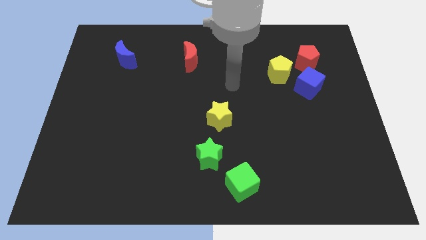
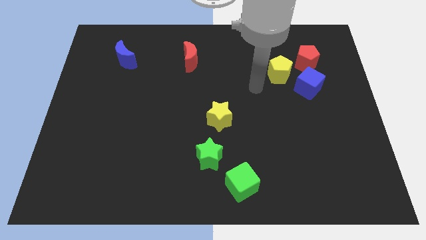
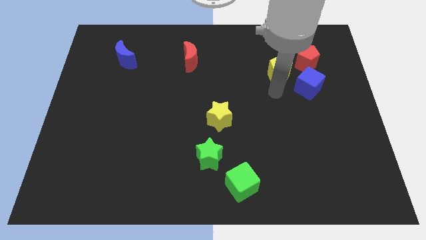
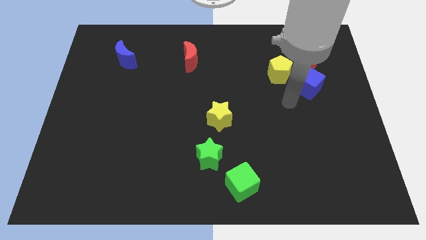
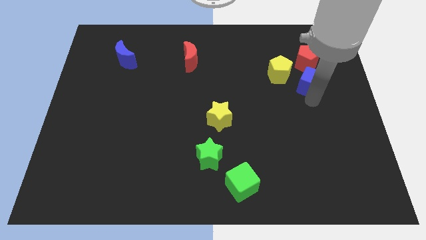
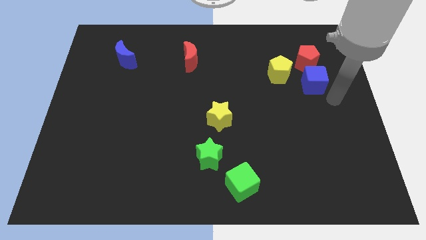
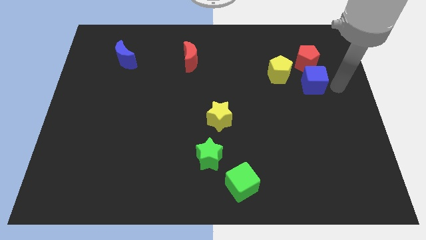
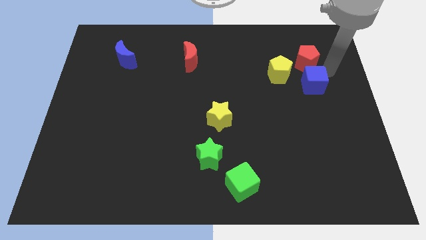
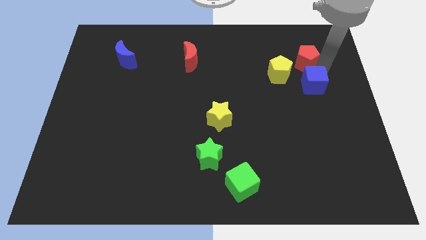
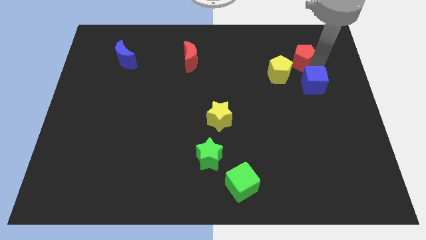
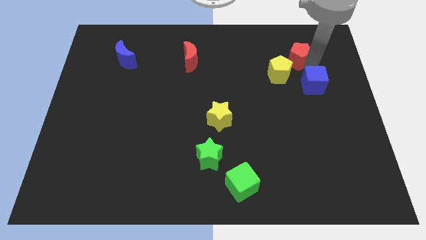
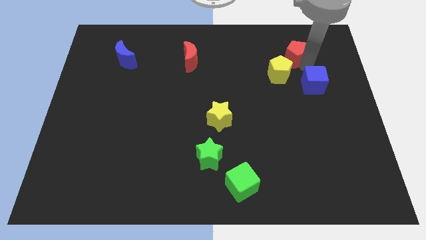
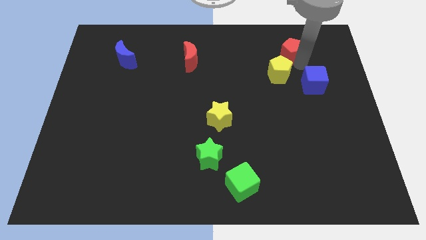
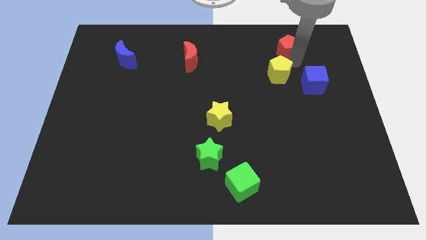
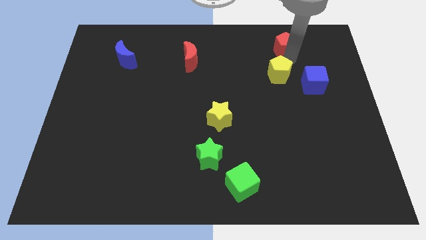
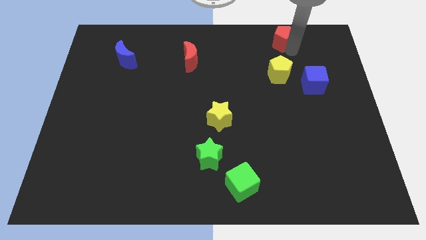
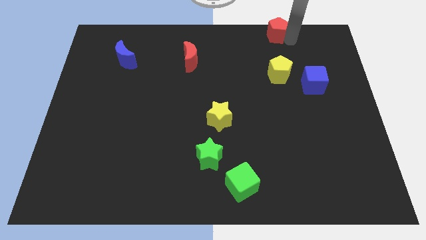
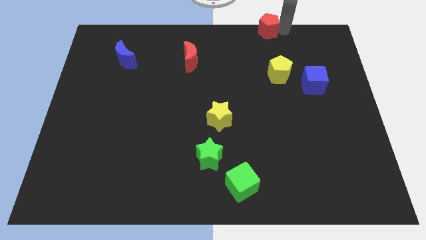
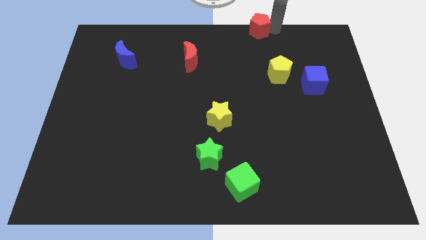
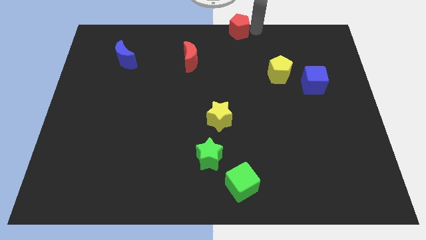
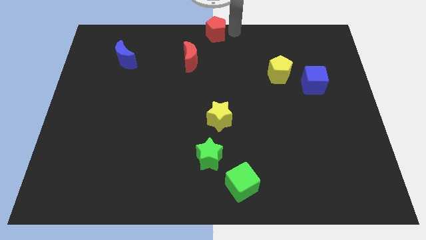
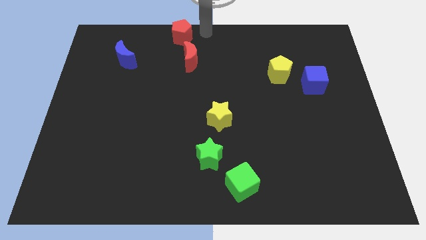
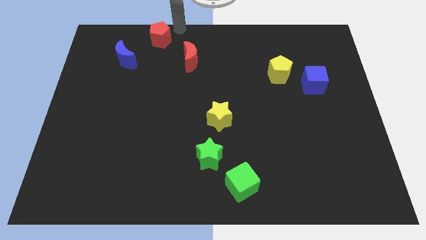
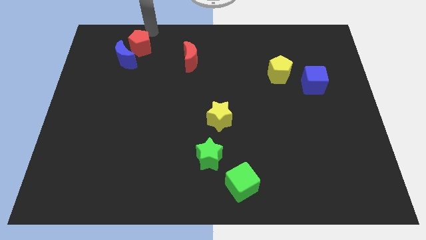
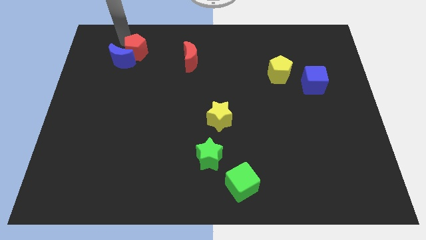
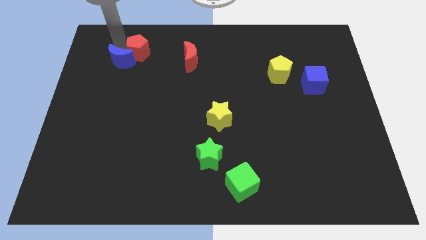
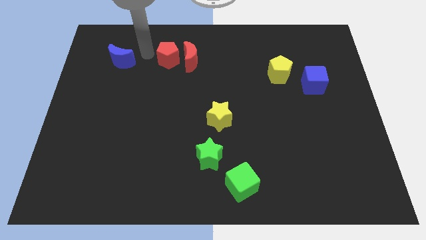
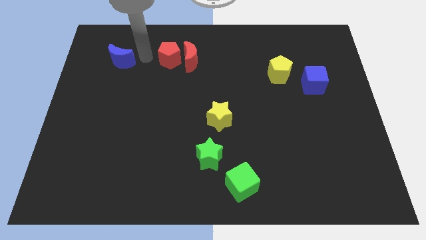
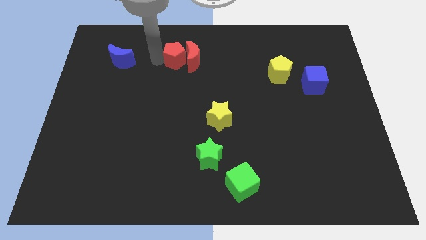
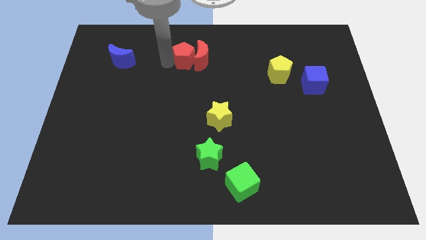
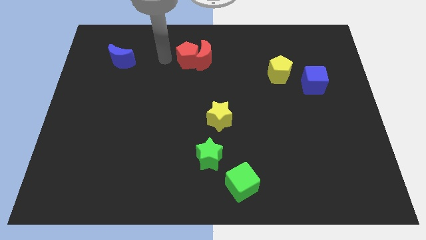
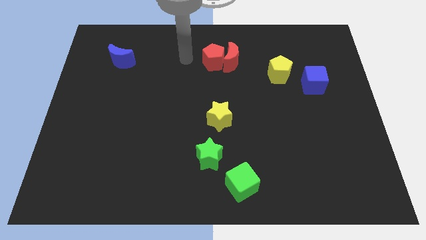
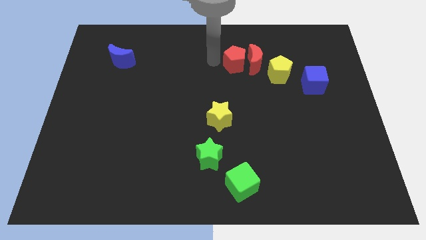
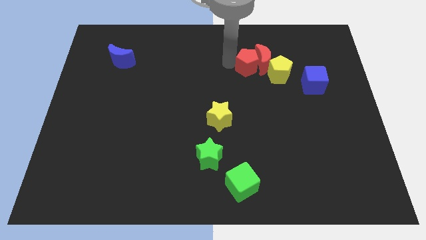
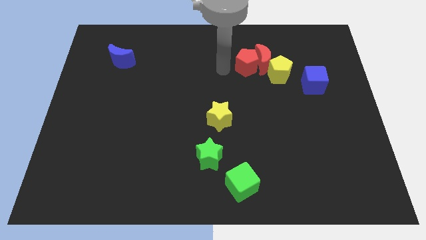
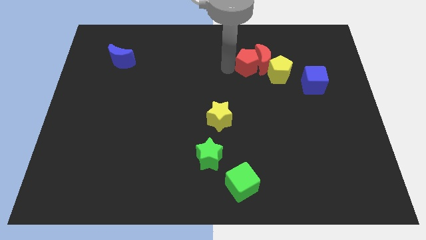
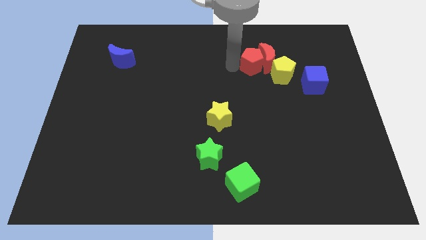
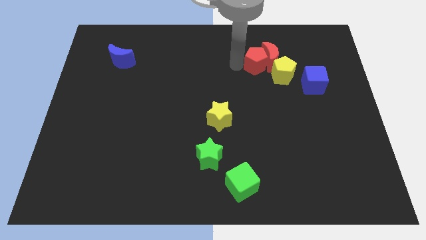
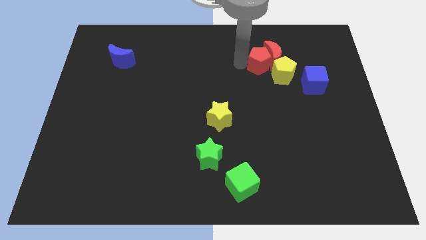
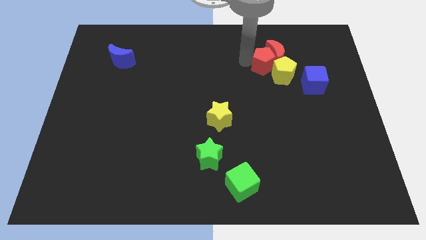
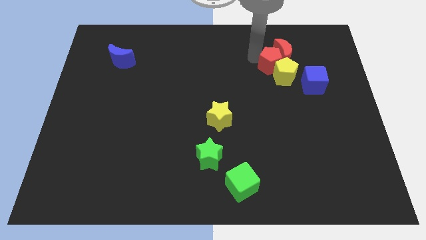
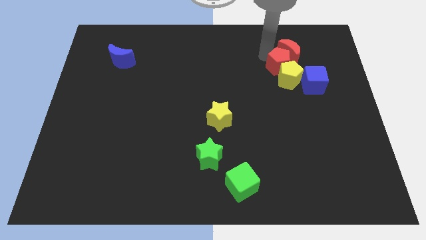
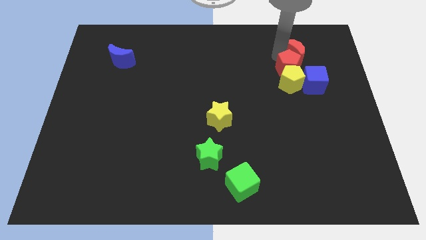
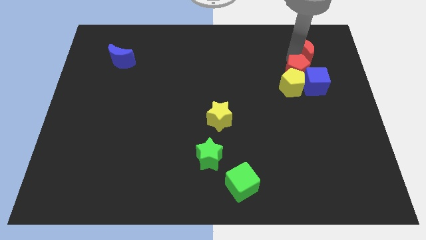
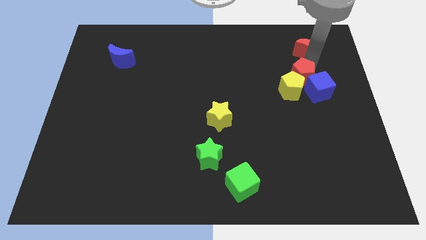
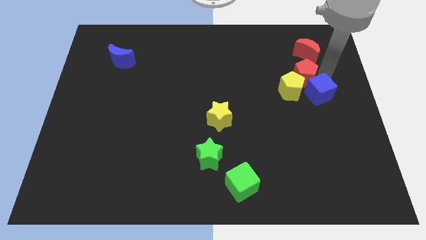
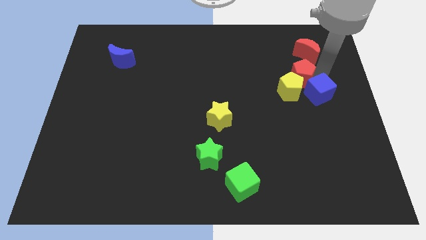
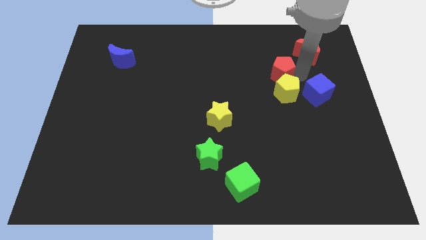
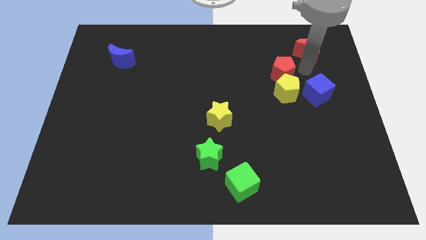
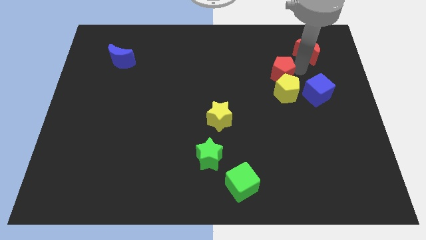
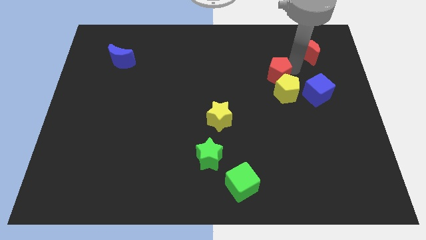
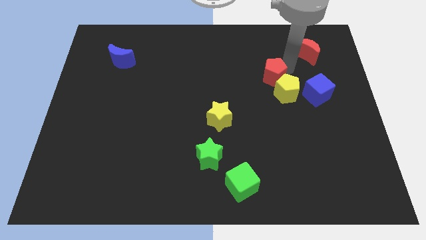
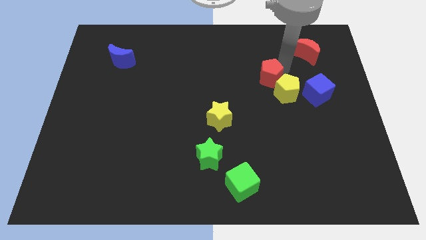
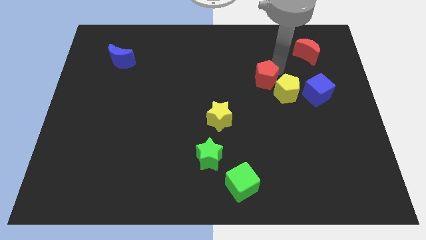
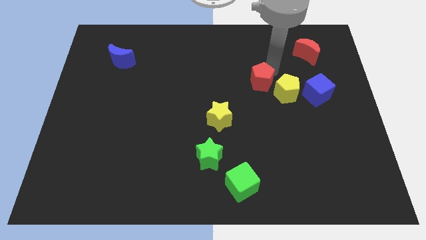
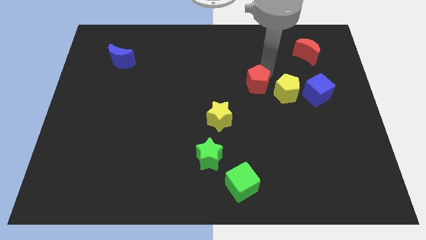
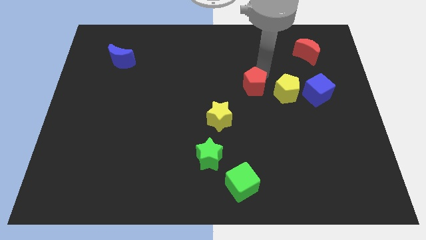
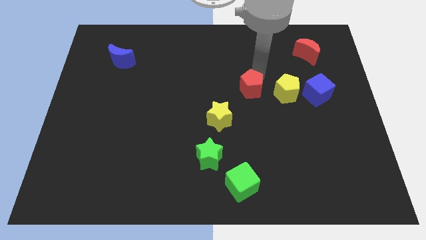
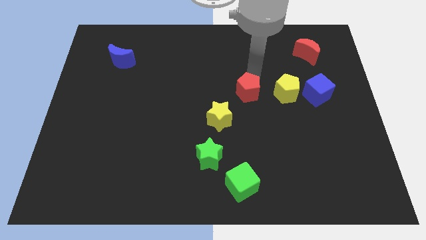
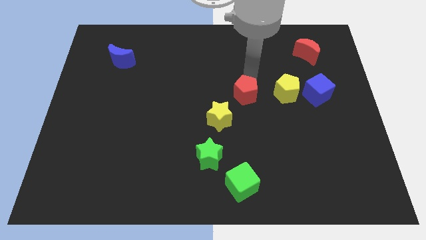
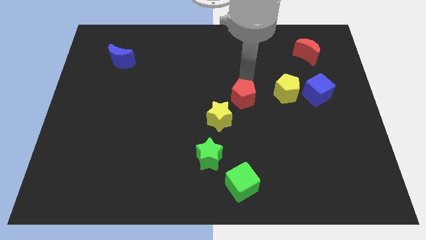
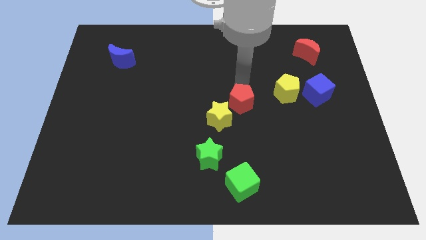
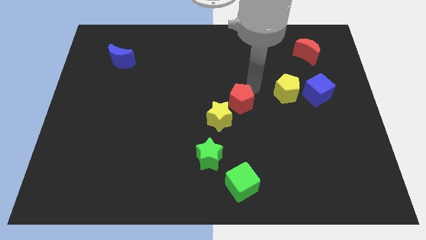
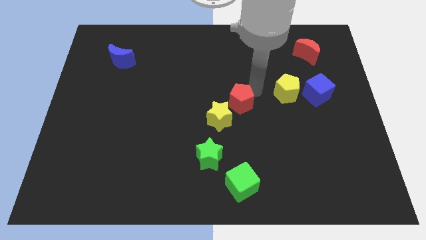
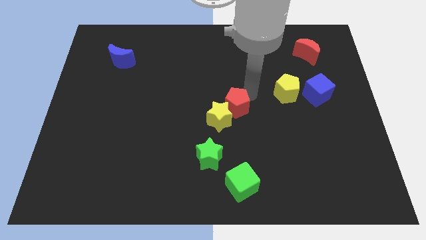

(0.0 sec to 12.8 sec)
slide the red pentagon towards the yellow star

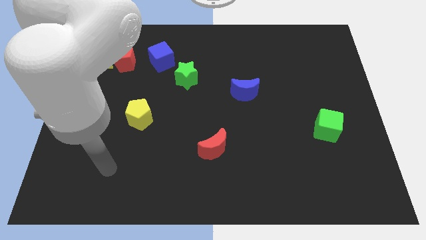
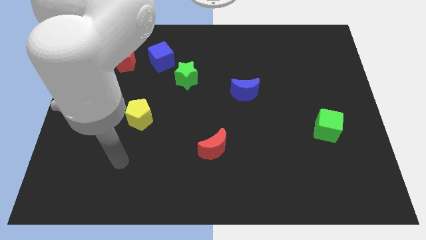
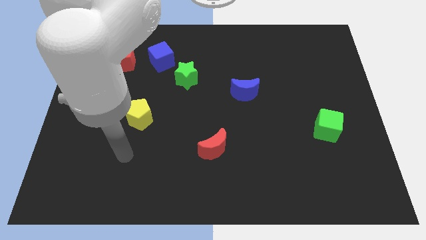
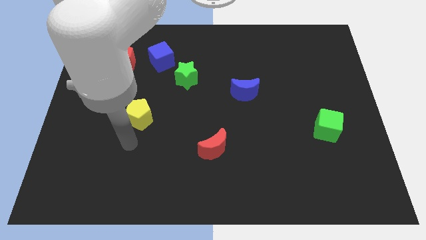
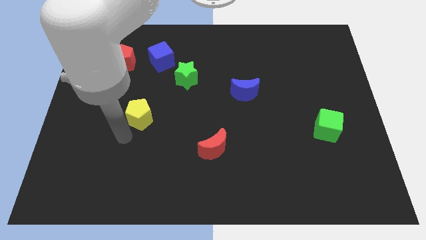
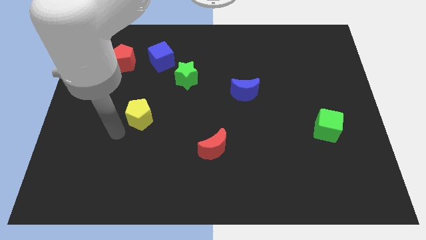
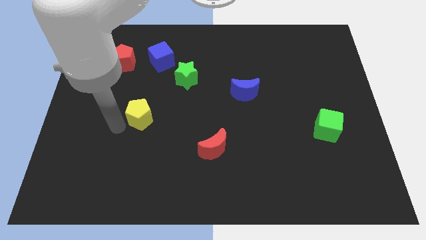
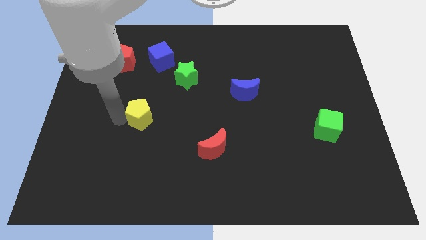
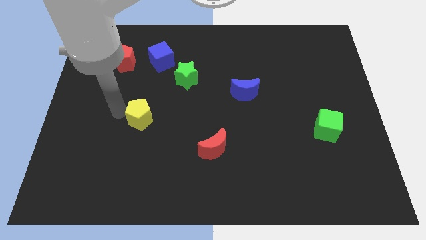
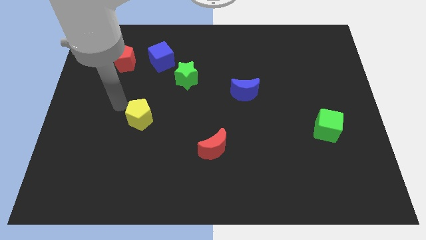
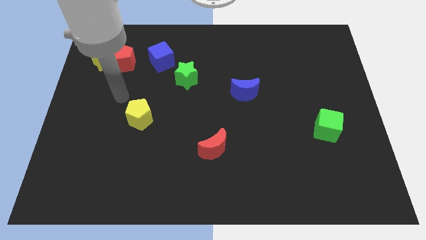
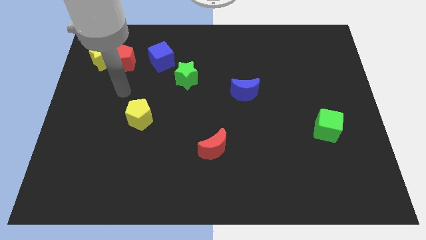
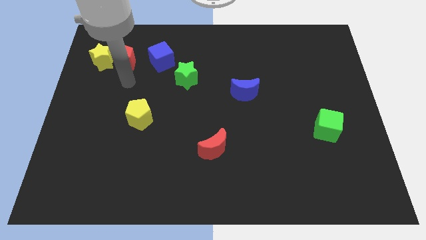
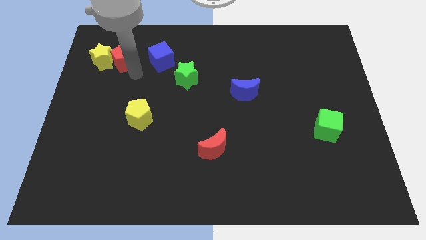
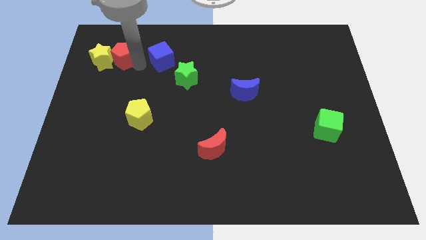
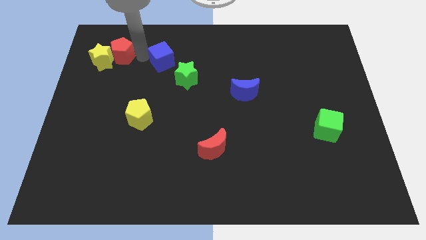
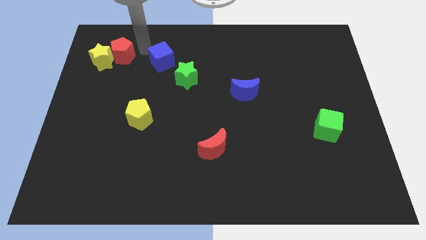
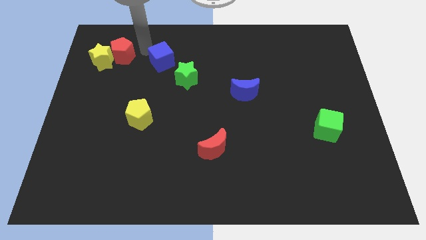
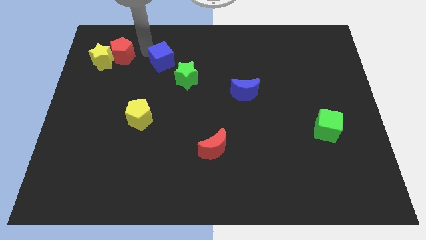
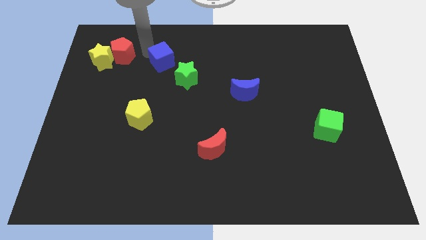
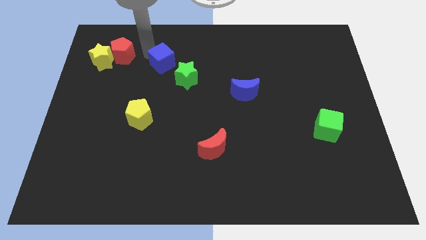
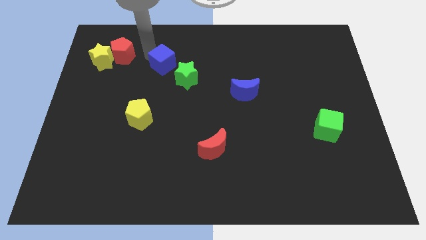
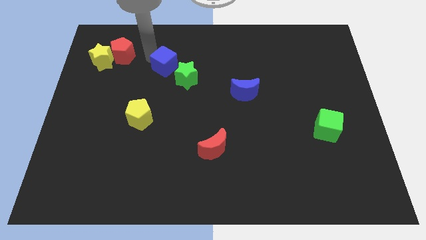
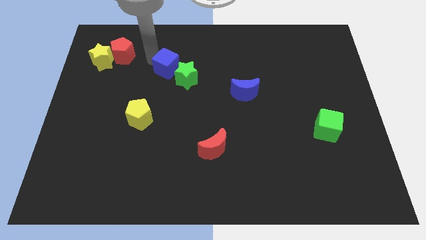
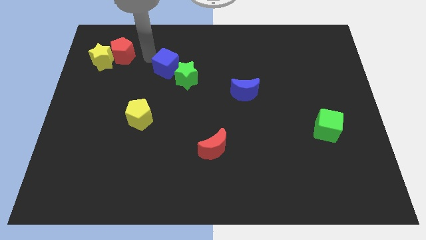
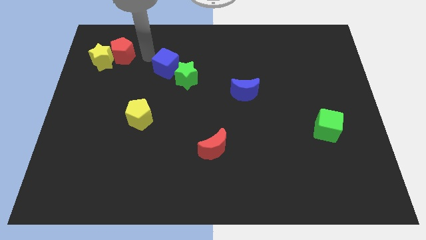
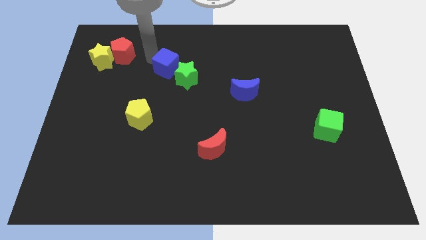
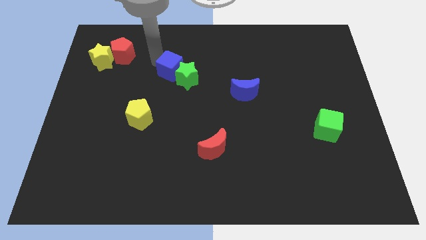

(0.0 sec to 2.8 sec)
move the blue cube close to the green star
